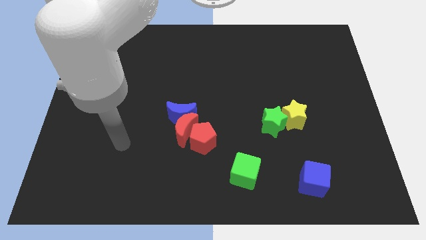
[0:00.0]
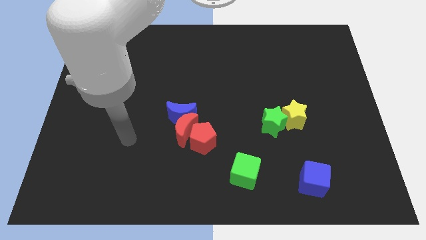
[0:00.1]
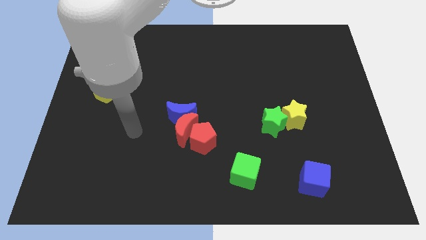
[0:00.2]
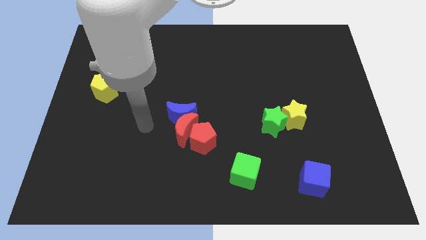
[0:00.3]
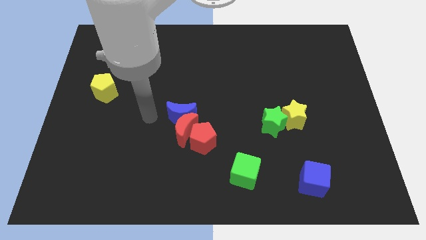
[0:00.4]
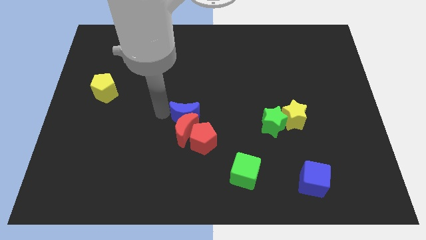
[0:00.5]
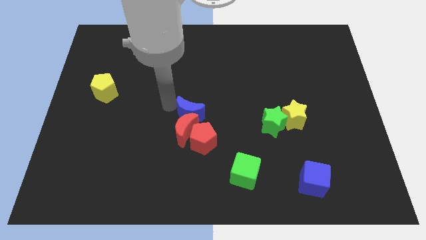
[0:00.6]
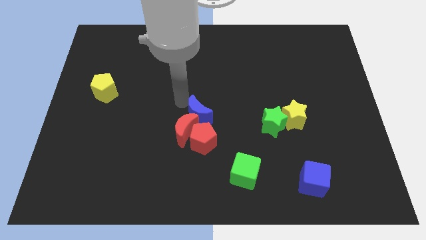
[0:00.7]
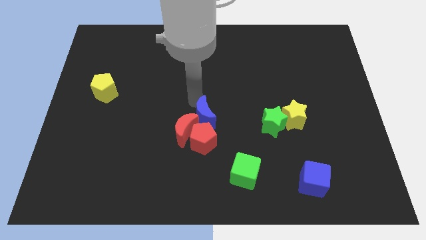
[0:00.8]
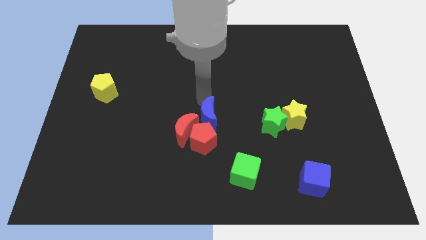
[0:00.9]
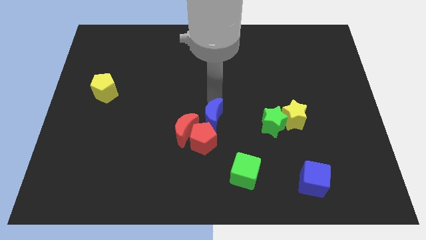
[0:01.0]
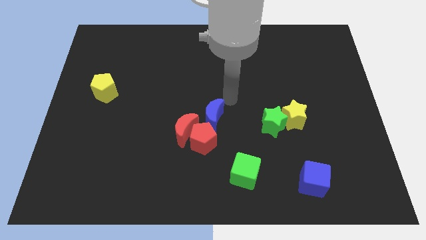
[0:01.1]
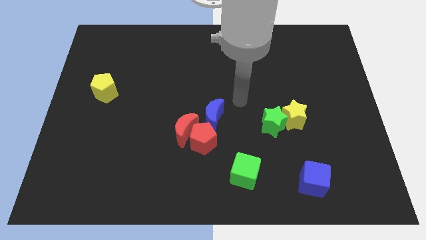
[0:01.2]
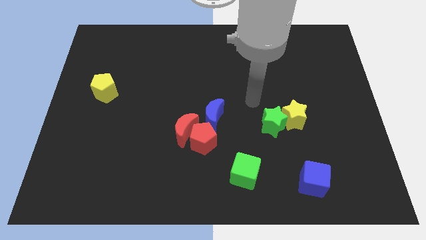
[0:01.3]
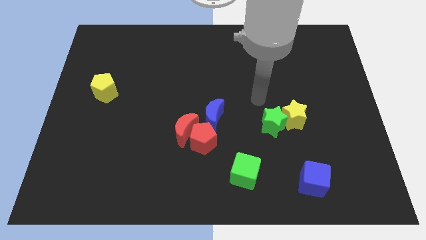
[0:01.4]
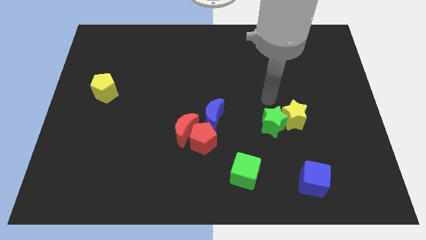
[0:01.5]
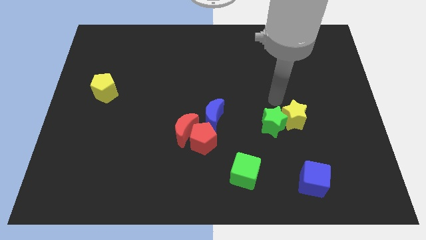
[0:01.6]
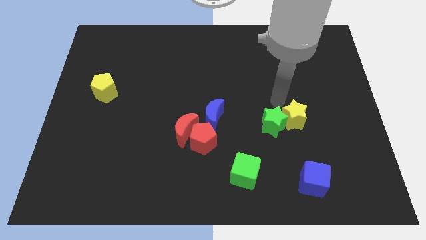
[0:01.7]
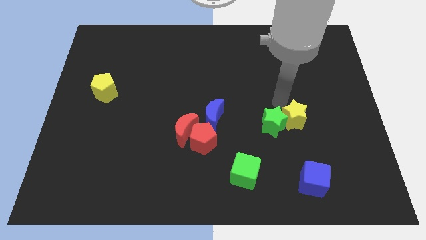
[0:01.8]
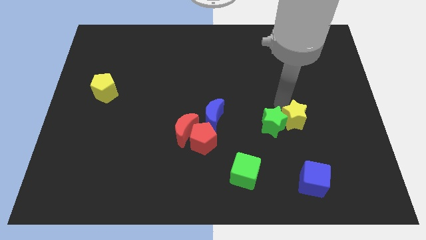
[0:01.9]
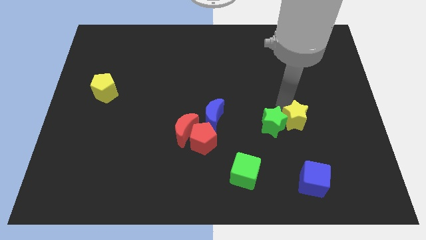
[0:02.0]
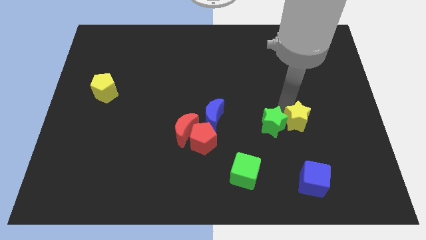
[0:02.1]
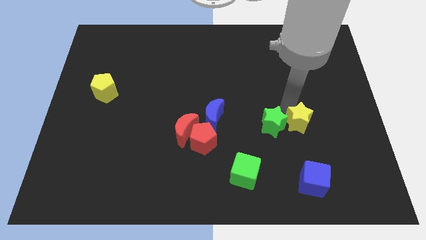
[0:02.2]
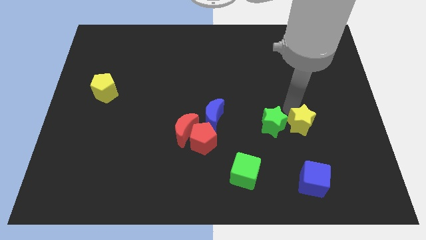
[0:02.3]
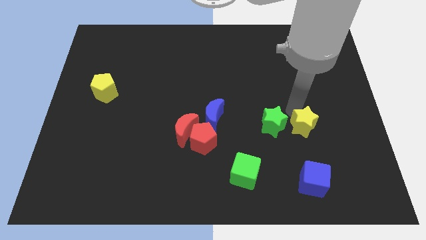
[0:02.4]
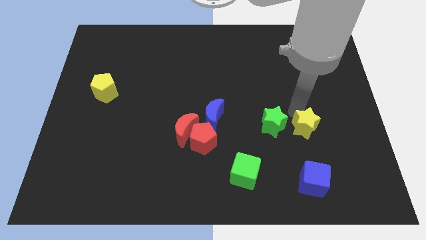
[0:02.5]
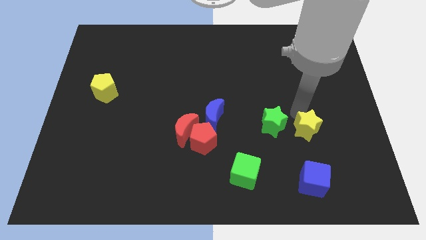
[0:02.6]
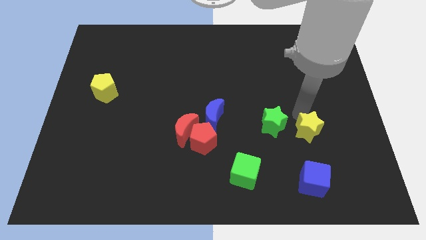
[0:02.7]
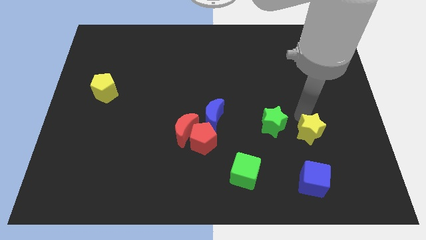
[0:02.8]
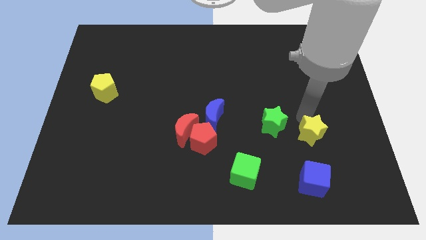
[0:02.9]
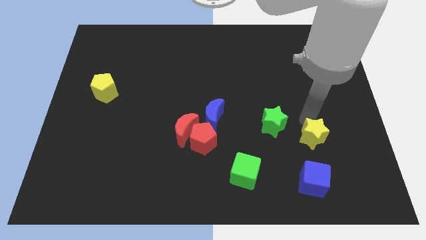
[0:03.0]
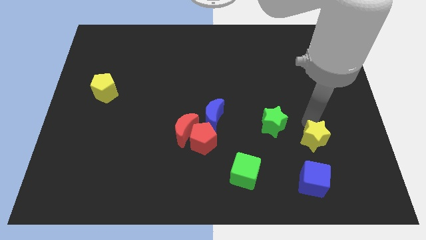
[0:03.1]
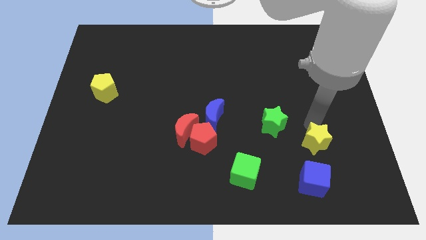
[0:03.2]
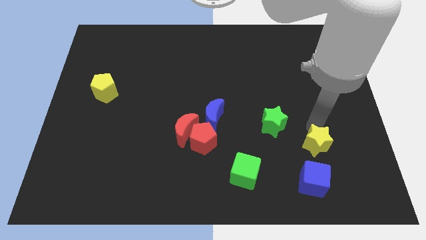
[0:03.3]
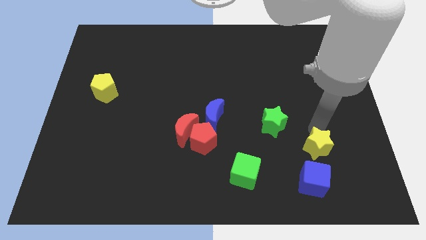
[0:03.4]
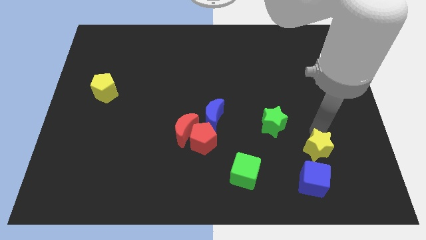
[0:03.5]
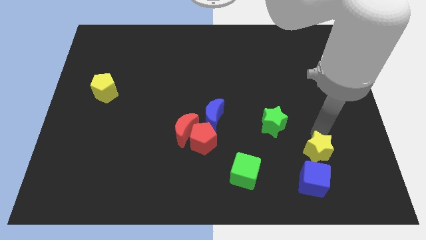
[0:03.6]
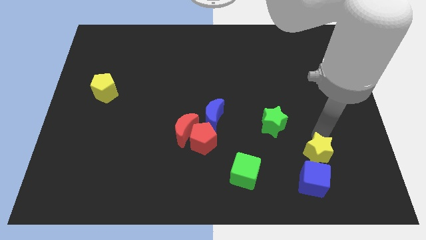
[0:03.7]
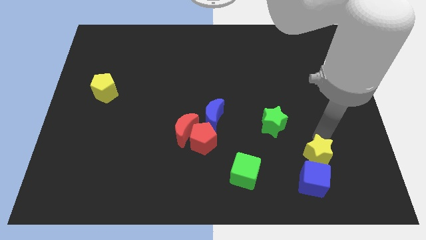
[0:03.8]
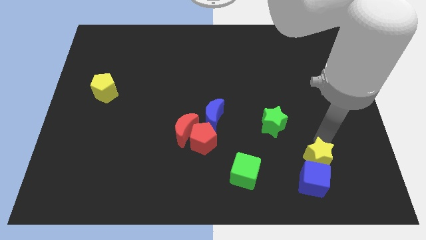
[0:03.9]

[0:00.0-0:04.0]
push the yellow star next to the blue cube

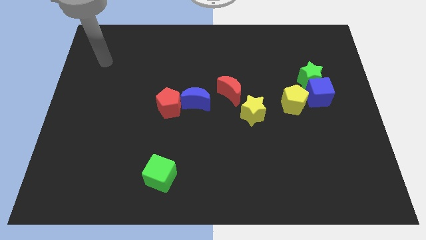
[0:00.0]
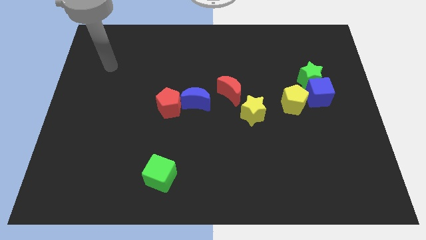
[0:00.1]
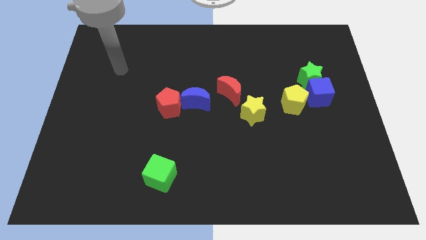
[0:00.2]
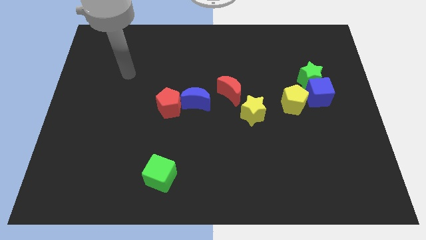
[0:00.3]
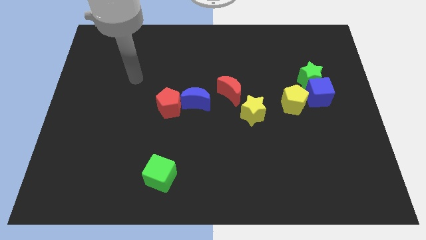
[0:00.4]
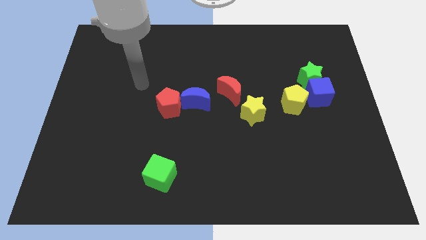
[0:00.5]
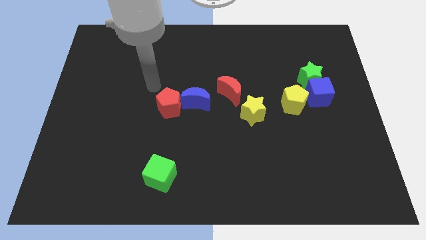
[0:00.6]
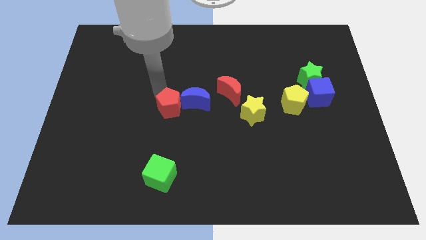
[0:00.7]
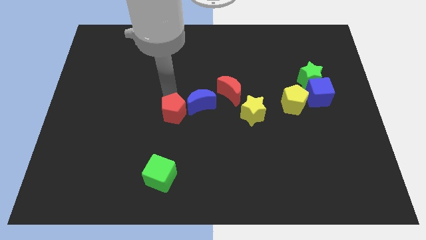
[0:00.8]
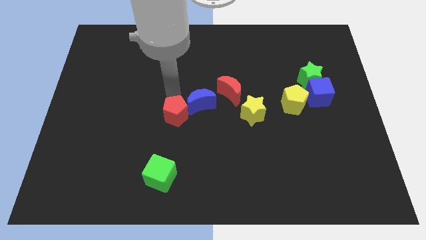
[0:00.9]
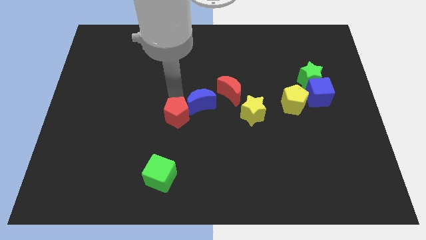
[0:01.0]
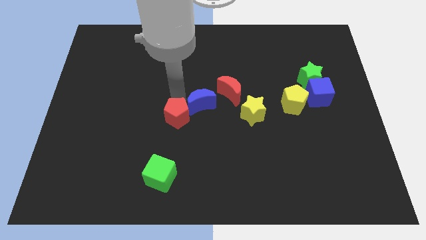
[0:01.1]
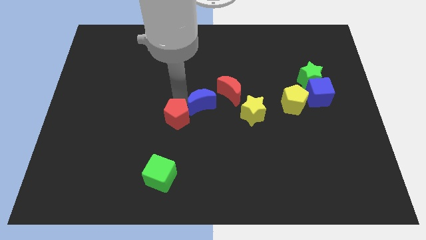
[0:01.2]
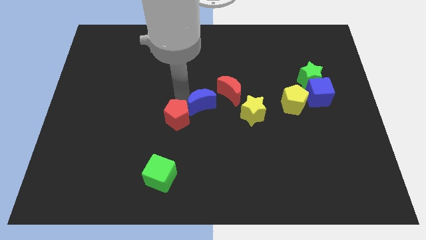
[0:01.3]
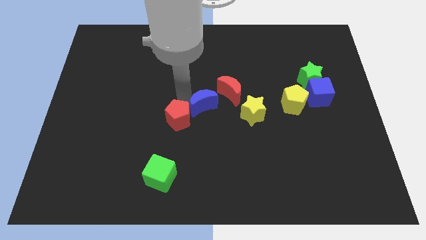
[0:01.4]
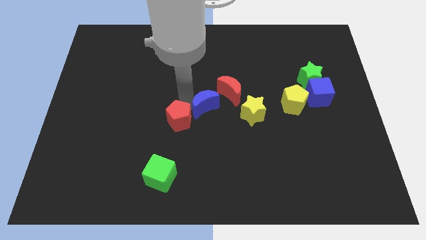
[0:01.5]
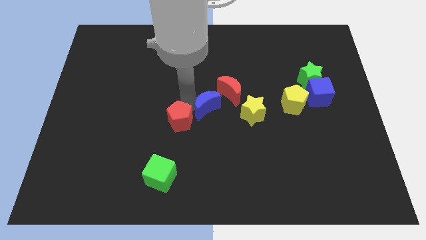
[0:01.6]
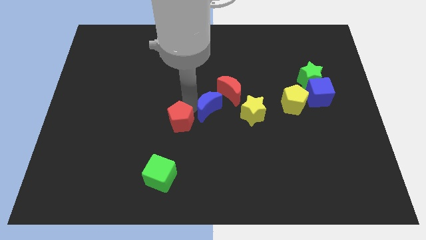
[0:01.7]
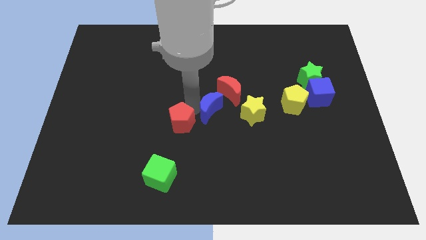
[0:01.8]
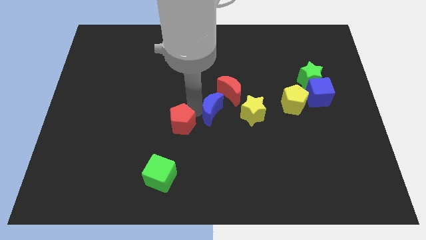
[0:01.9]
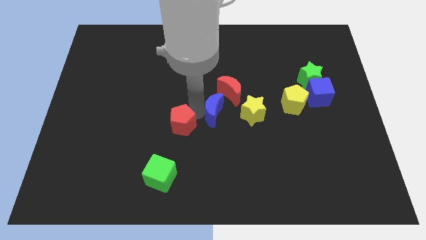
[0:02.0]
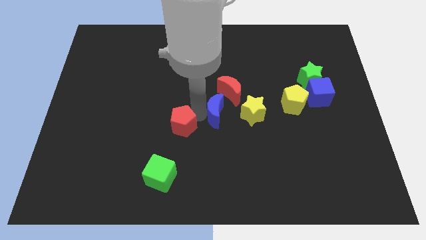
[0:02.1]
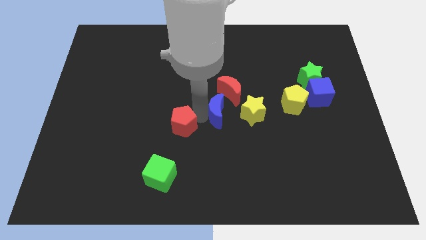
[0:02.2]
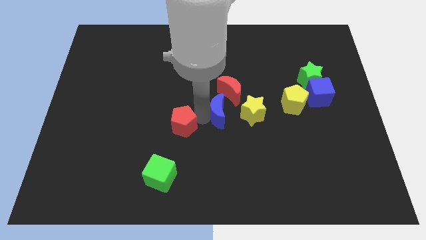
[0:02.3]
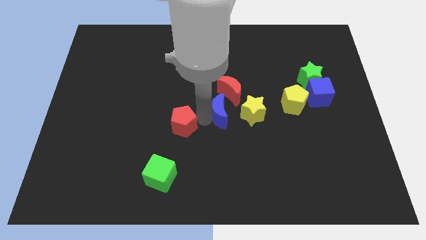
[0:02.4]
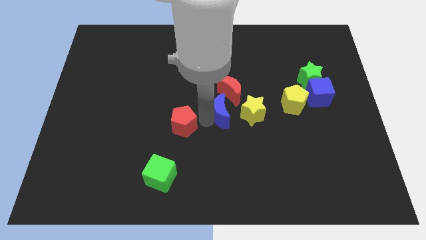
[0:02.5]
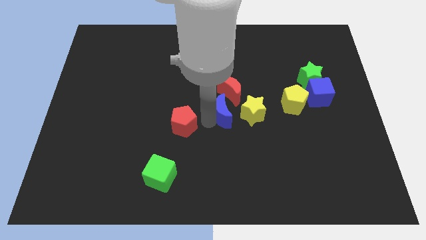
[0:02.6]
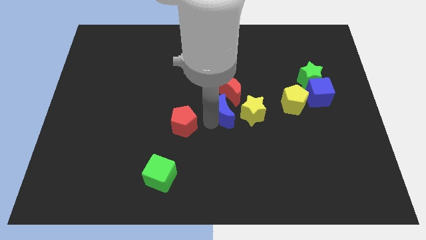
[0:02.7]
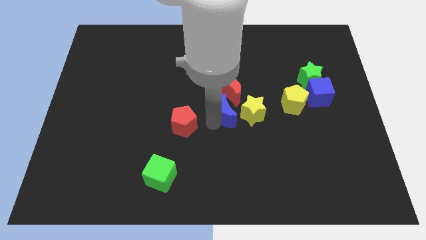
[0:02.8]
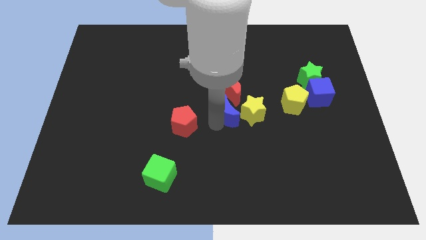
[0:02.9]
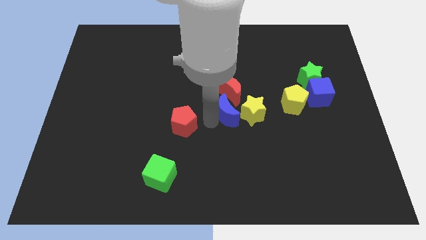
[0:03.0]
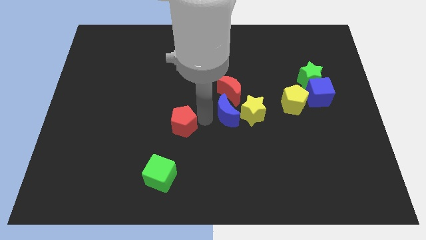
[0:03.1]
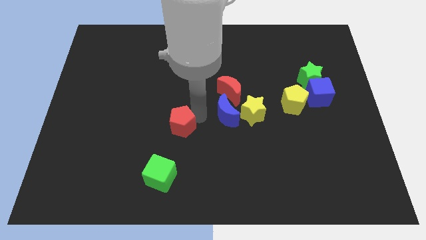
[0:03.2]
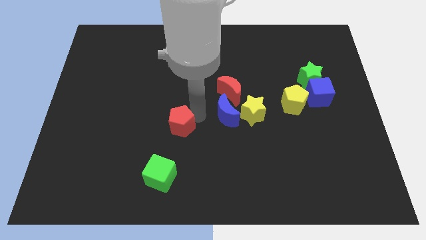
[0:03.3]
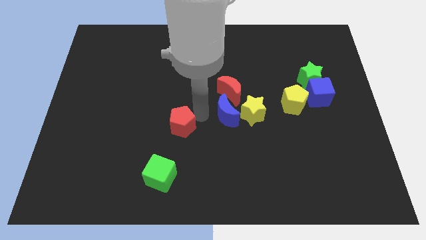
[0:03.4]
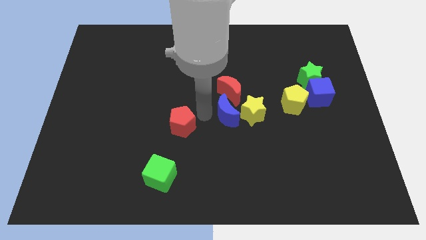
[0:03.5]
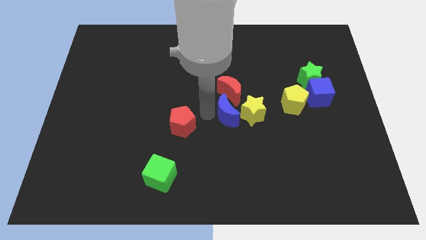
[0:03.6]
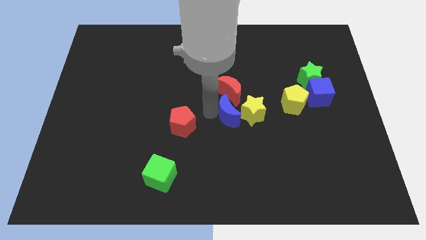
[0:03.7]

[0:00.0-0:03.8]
put the blue moon towards the yellow star
